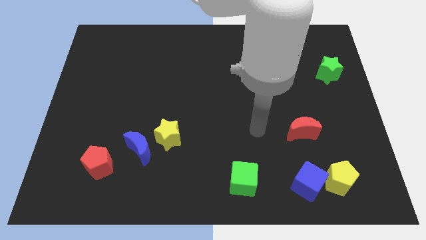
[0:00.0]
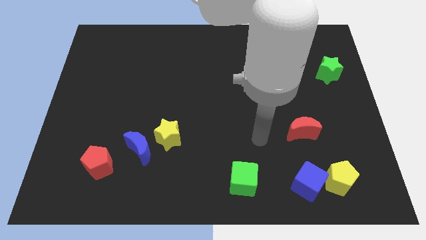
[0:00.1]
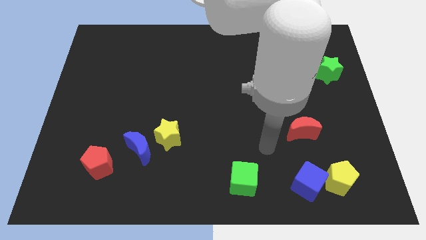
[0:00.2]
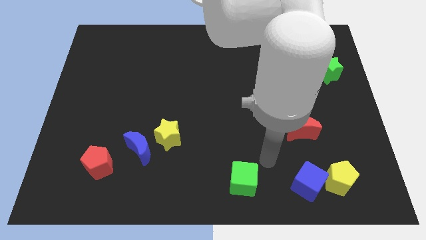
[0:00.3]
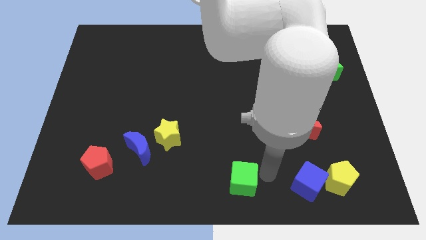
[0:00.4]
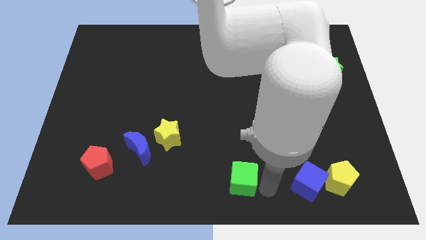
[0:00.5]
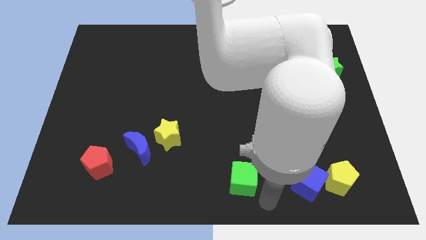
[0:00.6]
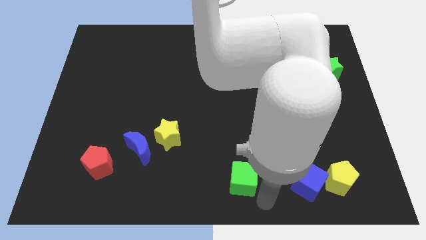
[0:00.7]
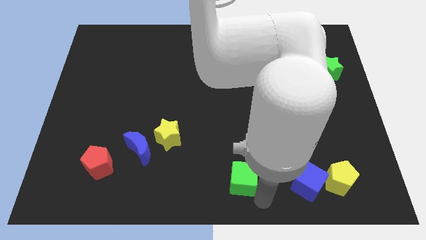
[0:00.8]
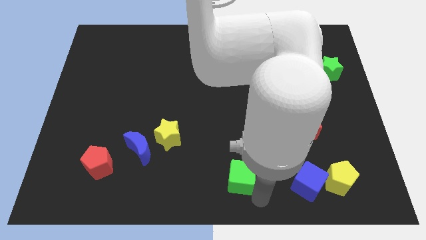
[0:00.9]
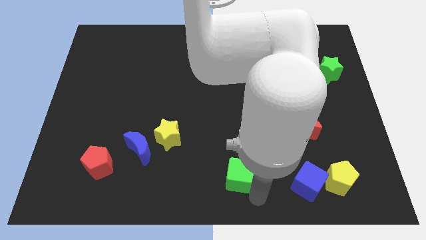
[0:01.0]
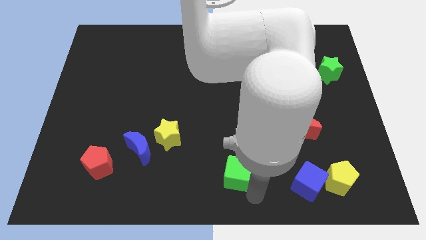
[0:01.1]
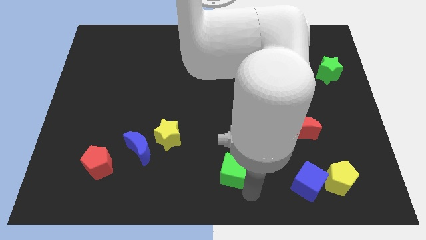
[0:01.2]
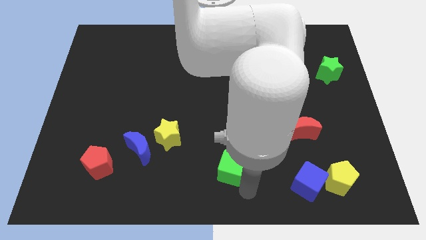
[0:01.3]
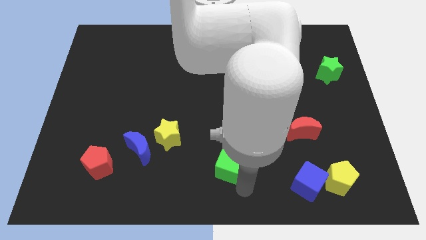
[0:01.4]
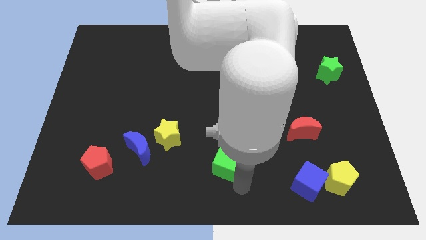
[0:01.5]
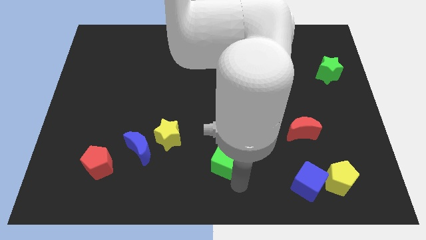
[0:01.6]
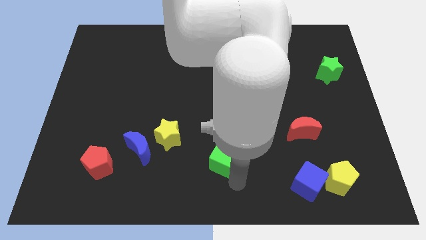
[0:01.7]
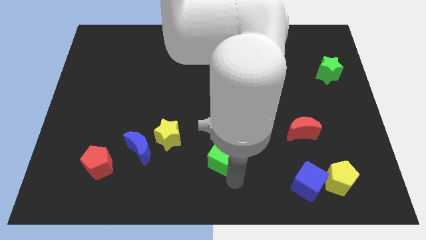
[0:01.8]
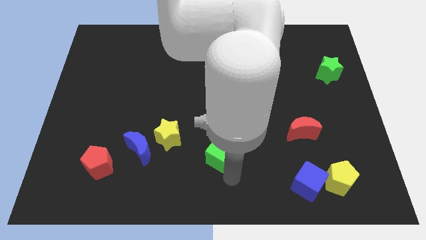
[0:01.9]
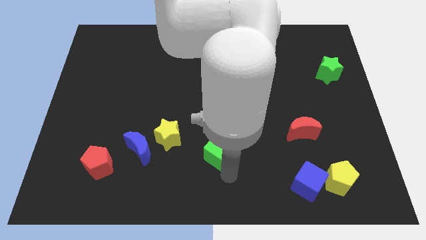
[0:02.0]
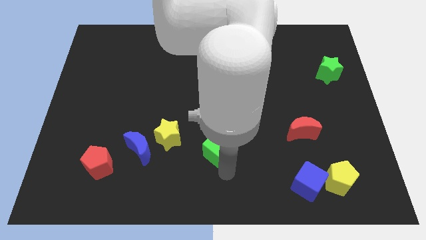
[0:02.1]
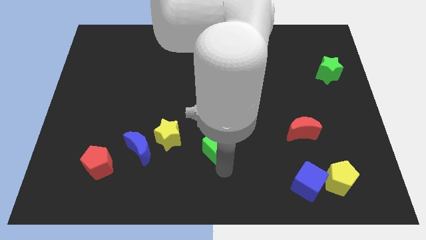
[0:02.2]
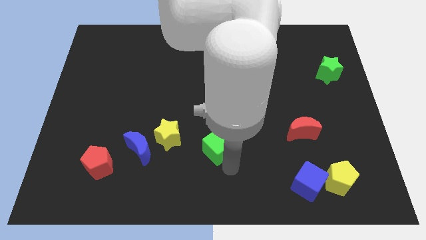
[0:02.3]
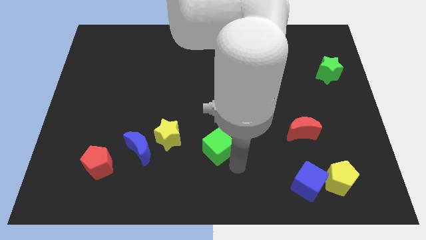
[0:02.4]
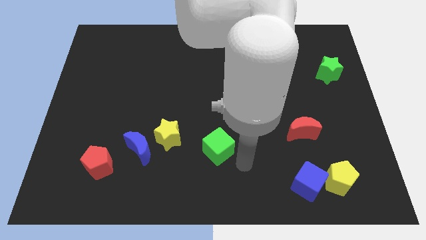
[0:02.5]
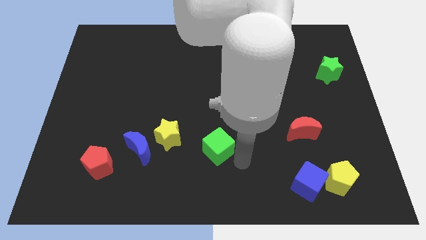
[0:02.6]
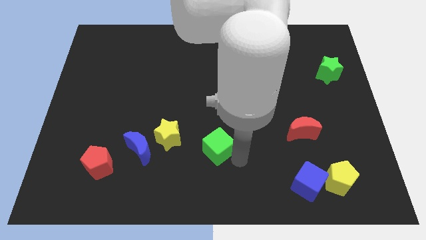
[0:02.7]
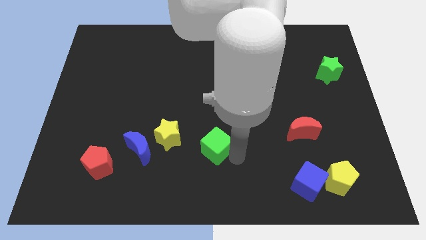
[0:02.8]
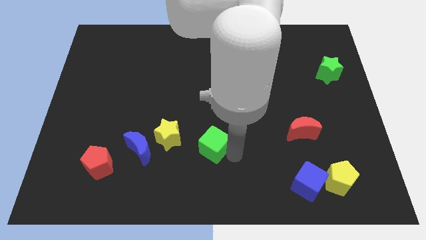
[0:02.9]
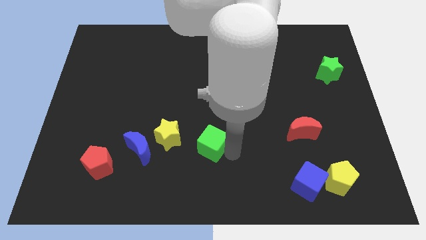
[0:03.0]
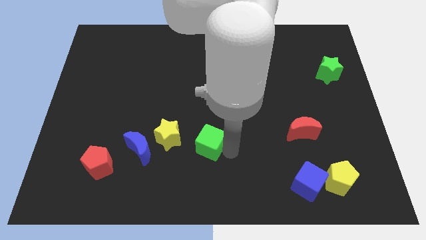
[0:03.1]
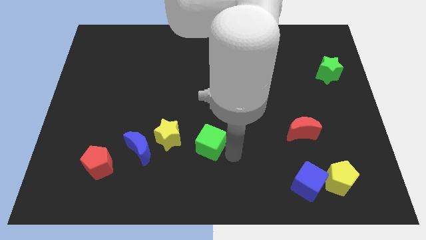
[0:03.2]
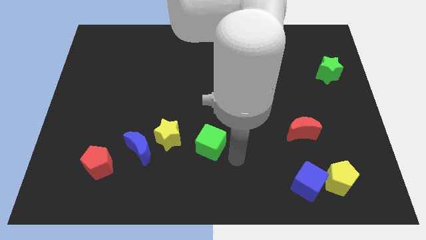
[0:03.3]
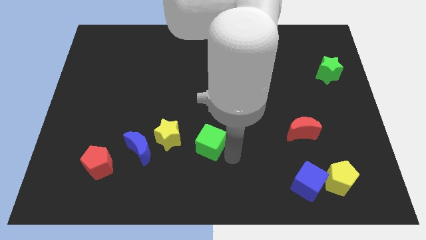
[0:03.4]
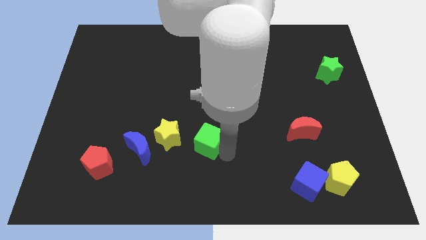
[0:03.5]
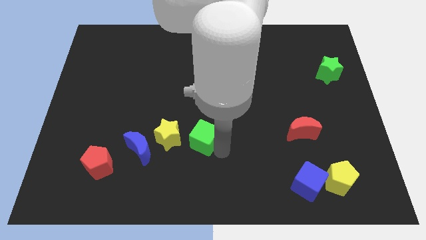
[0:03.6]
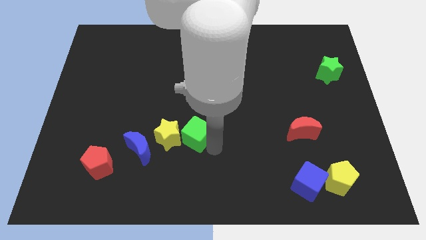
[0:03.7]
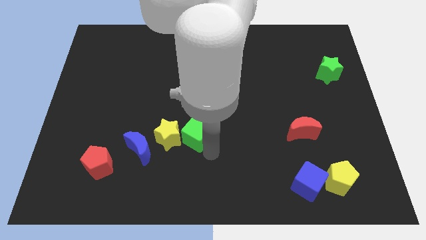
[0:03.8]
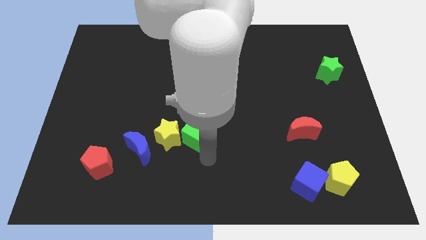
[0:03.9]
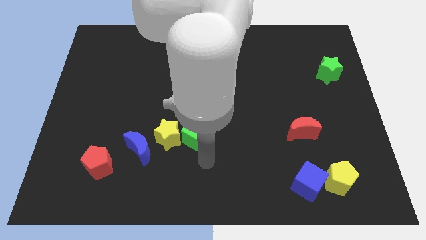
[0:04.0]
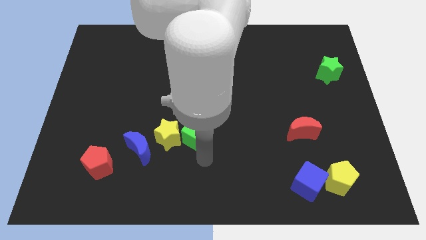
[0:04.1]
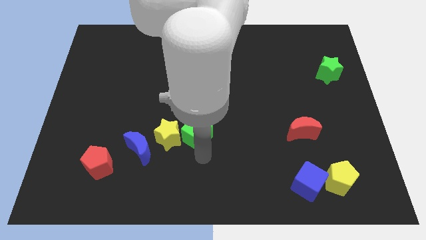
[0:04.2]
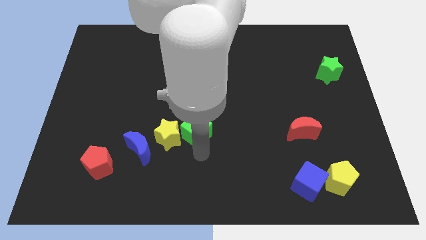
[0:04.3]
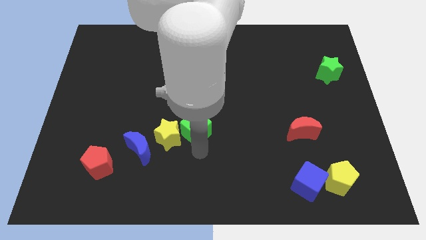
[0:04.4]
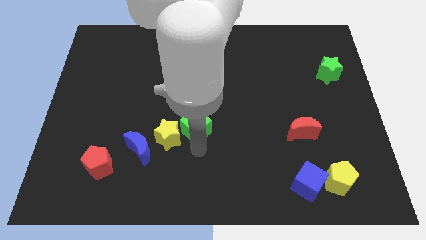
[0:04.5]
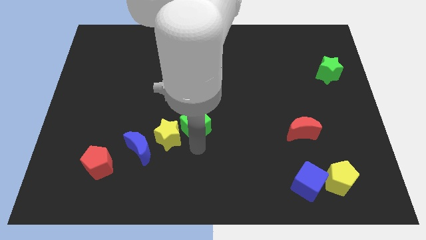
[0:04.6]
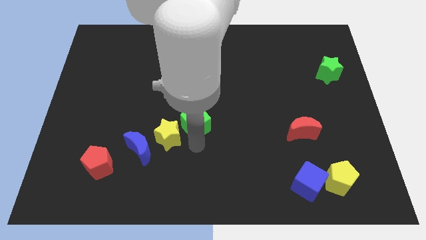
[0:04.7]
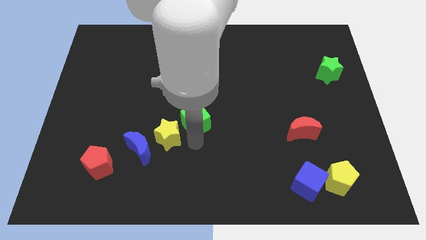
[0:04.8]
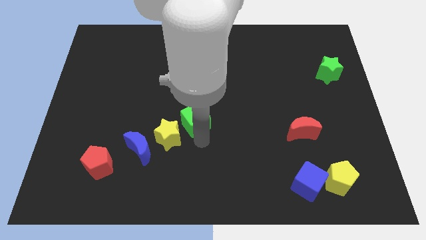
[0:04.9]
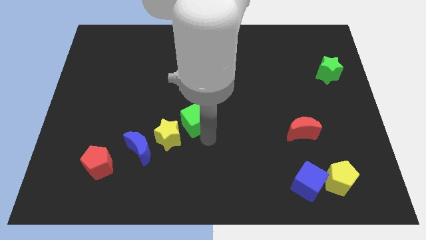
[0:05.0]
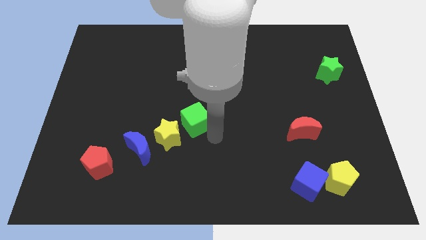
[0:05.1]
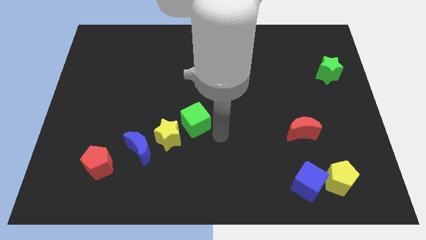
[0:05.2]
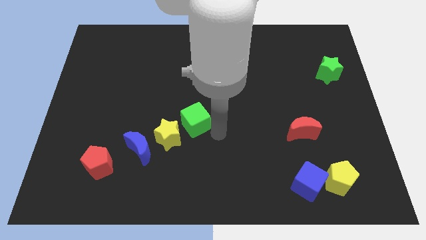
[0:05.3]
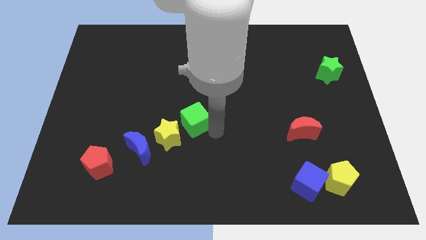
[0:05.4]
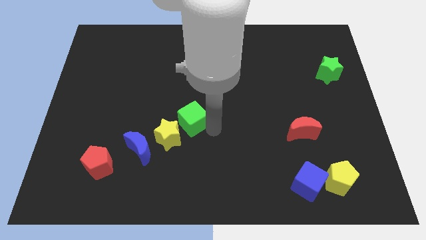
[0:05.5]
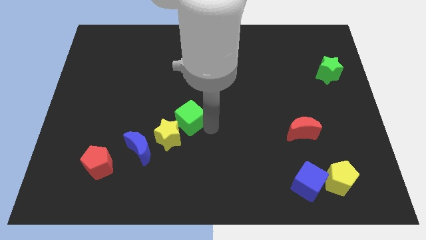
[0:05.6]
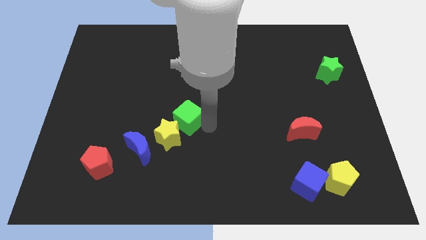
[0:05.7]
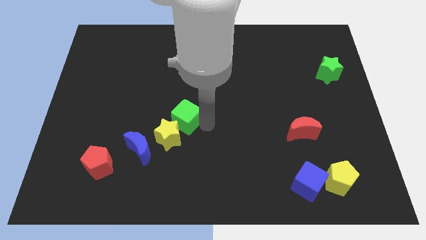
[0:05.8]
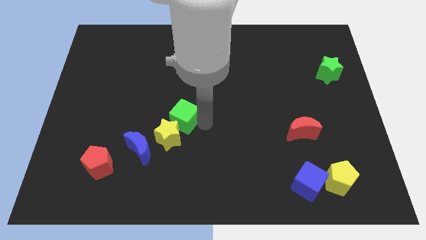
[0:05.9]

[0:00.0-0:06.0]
slide the green cube diagonally upwards and left

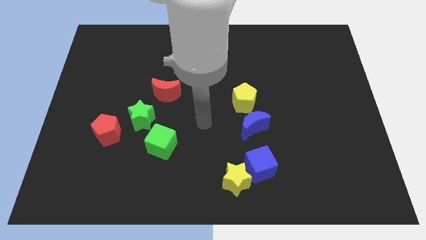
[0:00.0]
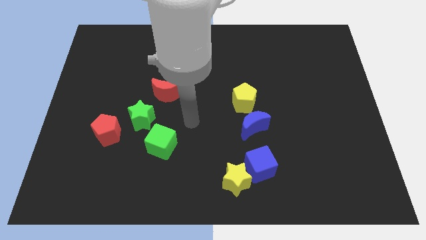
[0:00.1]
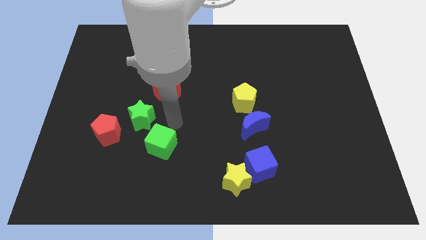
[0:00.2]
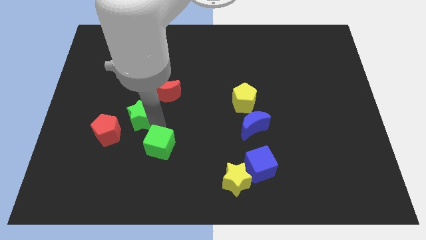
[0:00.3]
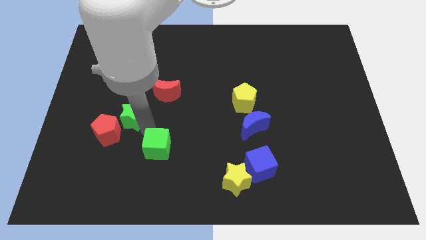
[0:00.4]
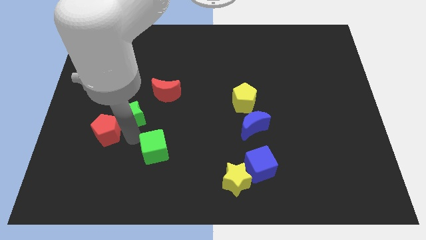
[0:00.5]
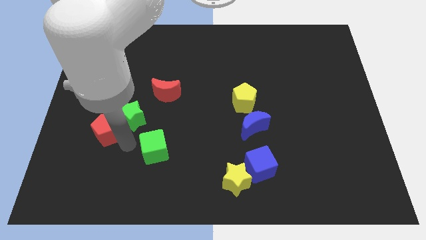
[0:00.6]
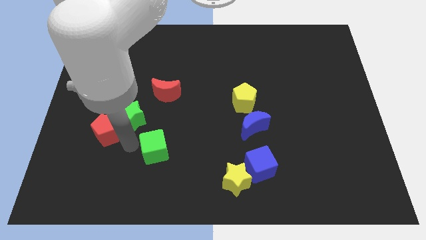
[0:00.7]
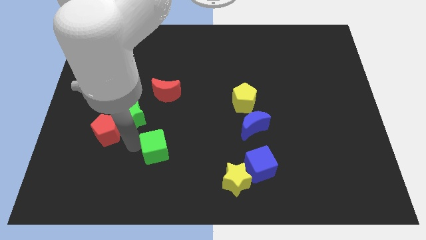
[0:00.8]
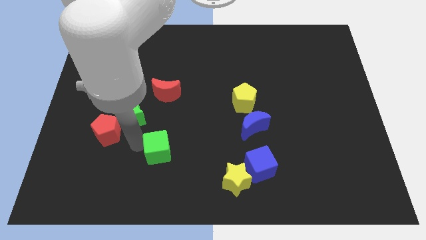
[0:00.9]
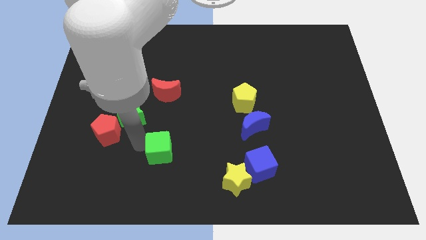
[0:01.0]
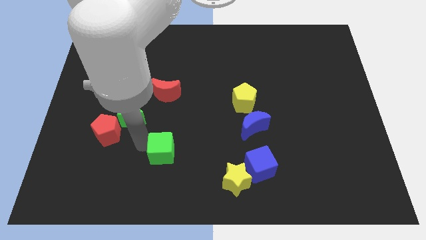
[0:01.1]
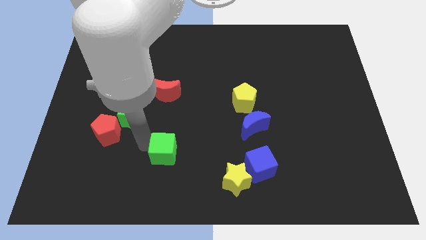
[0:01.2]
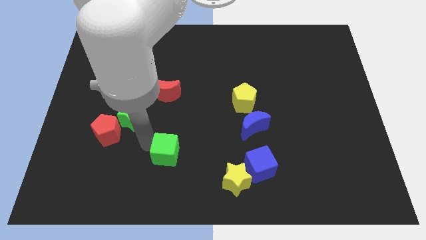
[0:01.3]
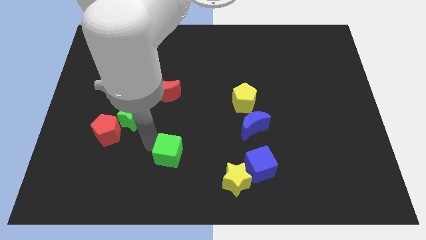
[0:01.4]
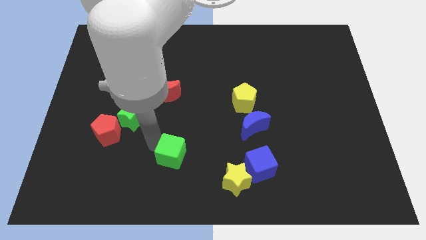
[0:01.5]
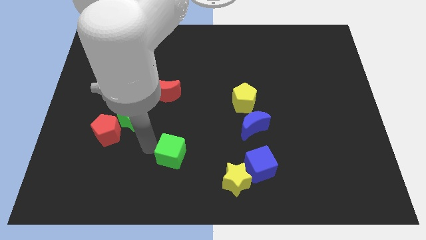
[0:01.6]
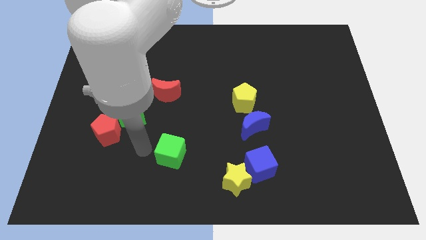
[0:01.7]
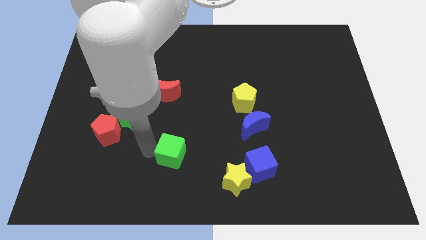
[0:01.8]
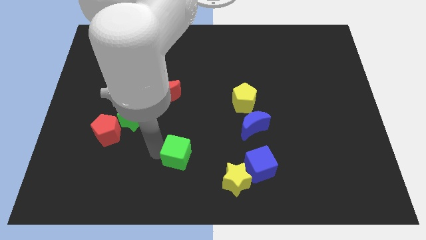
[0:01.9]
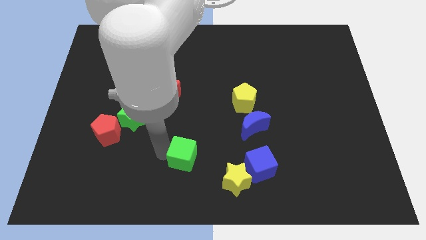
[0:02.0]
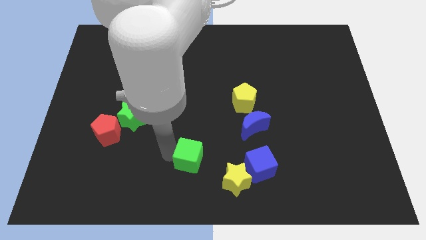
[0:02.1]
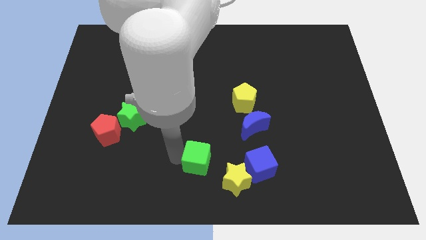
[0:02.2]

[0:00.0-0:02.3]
slide the green cube a bit to the right

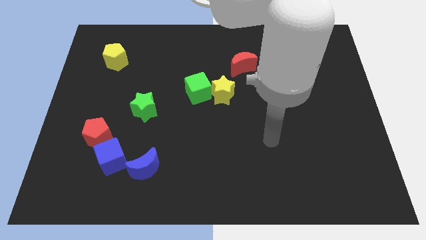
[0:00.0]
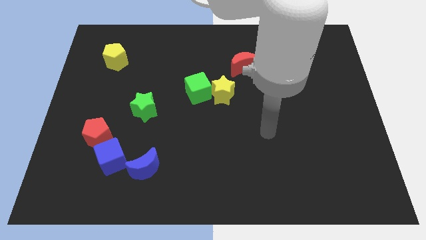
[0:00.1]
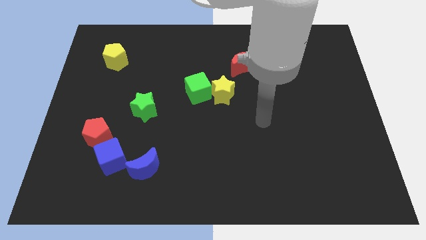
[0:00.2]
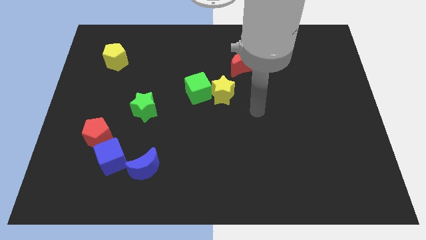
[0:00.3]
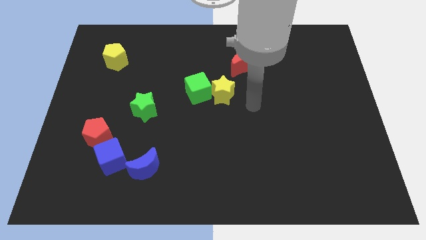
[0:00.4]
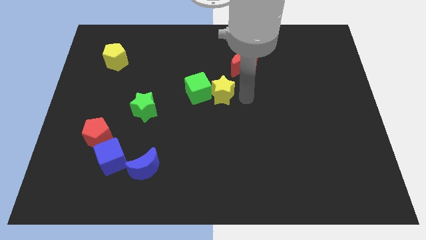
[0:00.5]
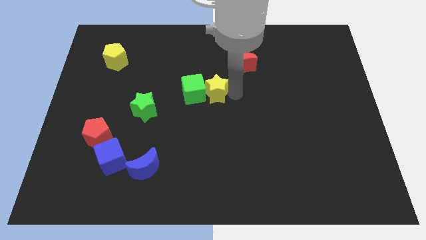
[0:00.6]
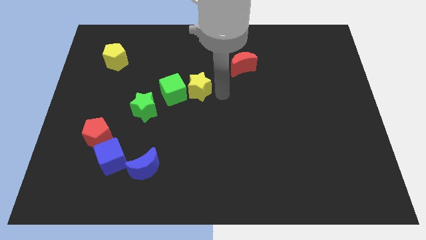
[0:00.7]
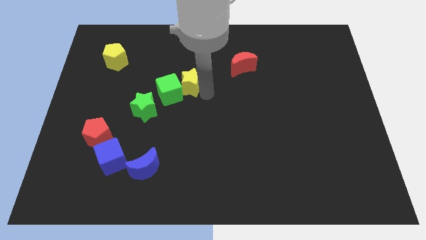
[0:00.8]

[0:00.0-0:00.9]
move the green cube to the left a little bit
